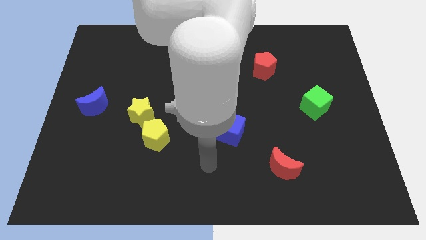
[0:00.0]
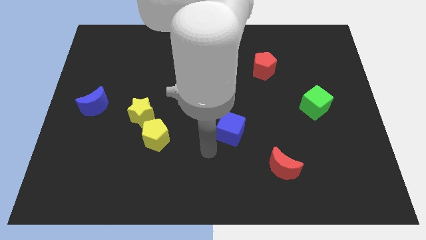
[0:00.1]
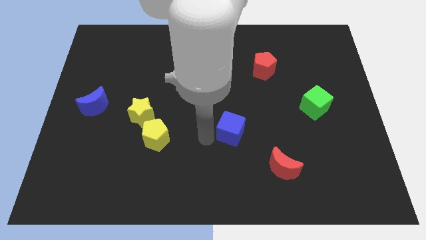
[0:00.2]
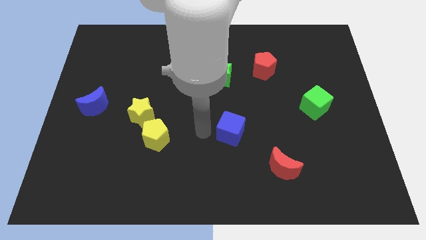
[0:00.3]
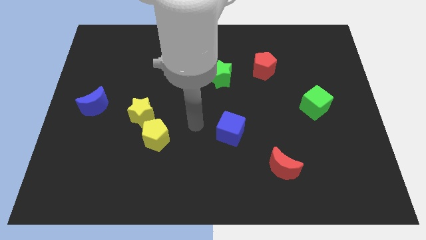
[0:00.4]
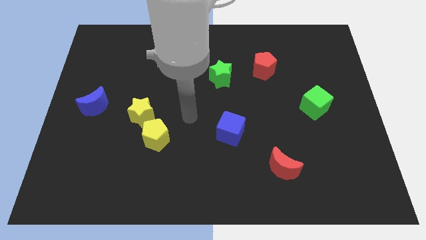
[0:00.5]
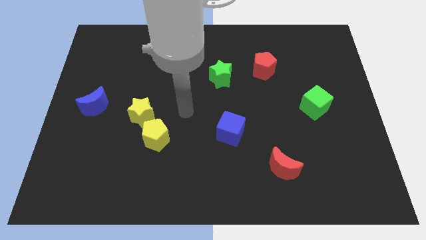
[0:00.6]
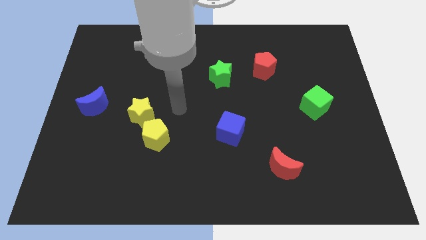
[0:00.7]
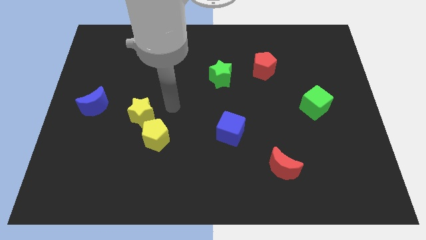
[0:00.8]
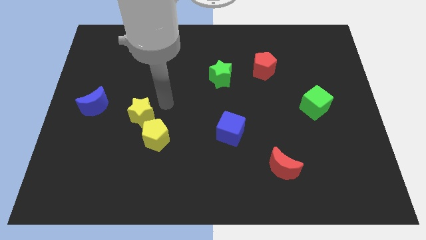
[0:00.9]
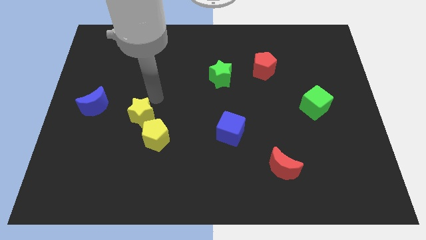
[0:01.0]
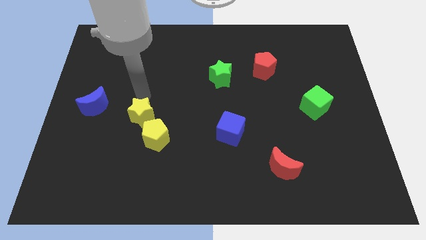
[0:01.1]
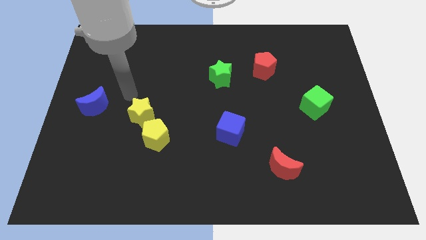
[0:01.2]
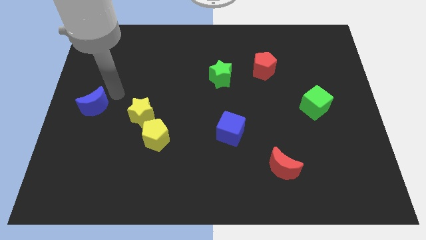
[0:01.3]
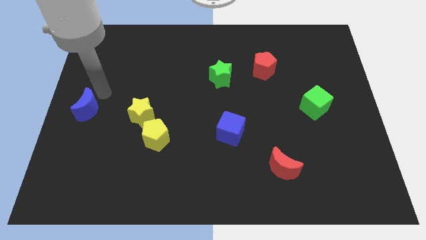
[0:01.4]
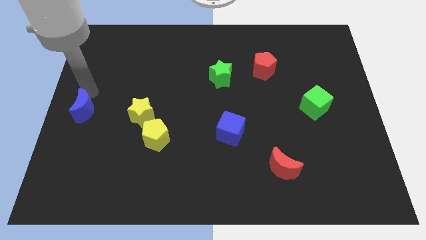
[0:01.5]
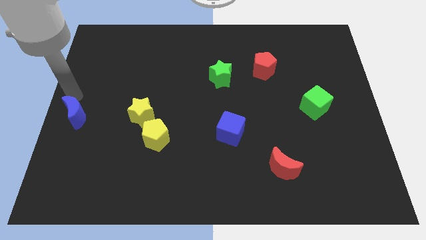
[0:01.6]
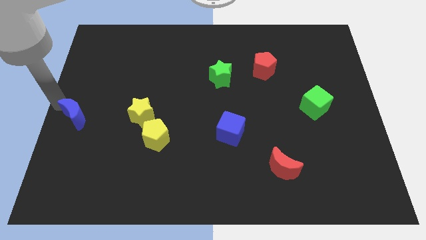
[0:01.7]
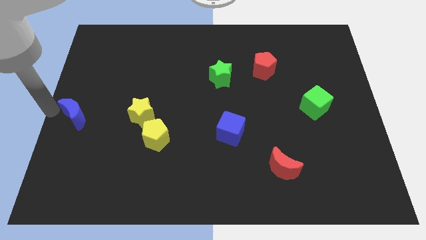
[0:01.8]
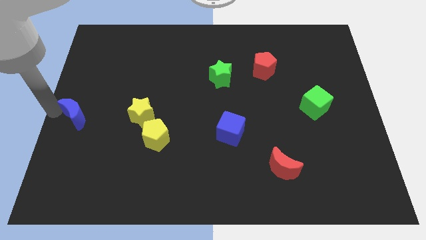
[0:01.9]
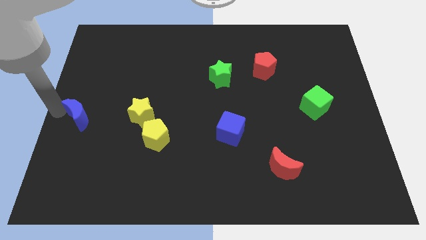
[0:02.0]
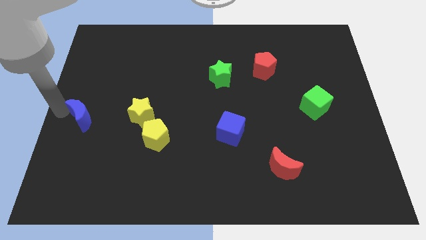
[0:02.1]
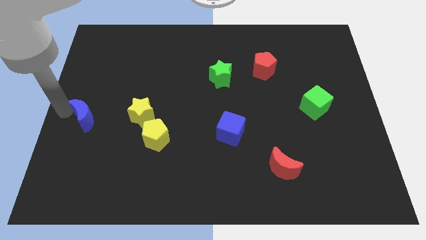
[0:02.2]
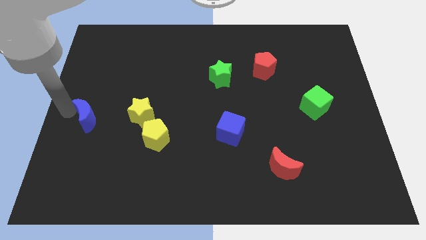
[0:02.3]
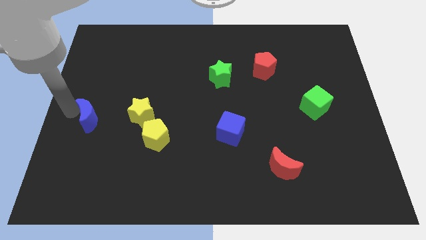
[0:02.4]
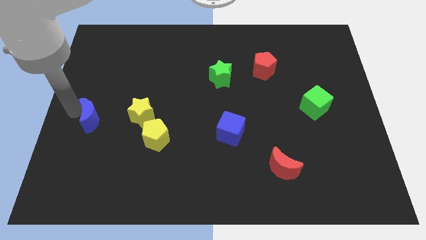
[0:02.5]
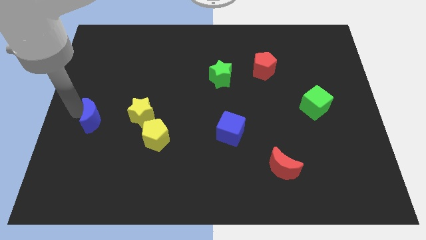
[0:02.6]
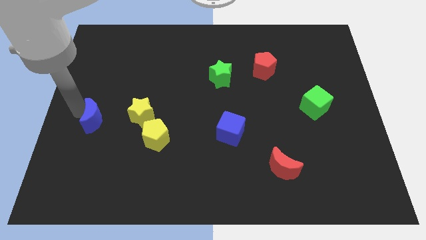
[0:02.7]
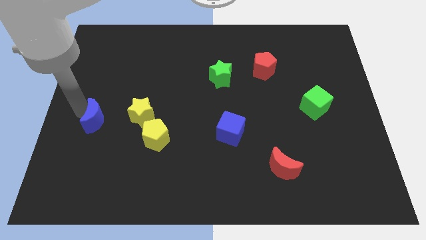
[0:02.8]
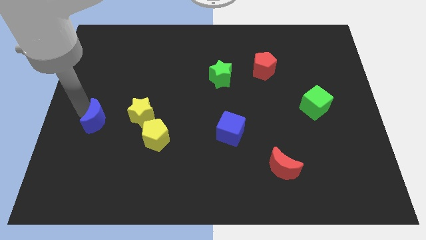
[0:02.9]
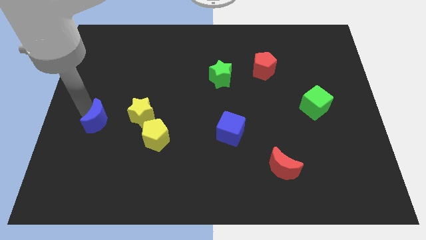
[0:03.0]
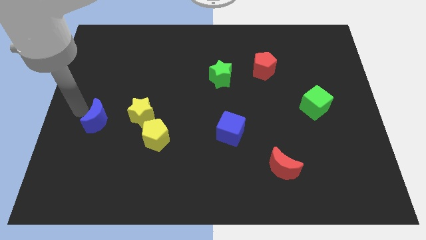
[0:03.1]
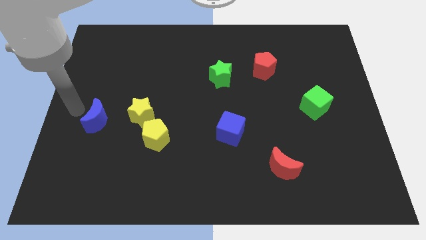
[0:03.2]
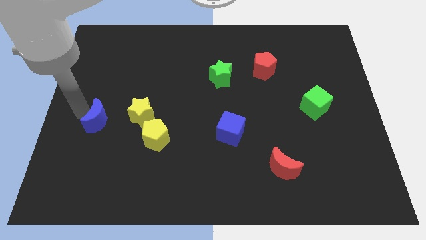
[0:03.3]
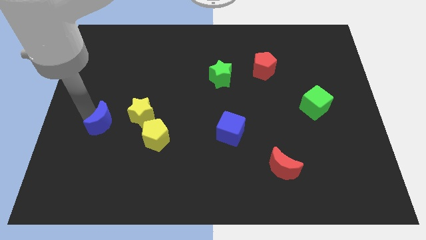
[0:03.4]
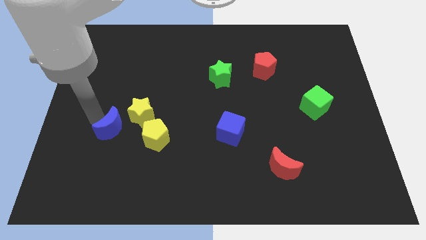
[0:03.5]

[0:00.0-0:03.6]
slightly slide the blue moon down and right diagonally

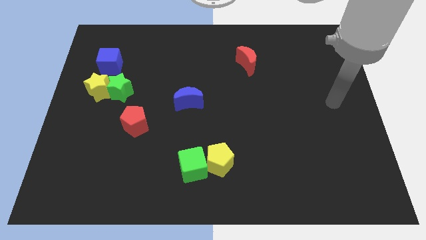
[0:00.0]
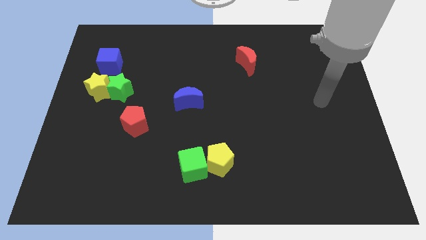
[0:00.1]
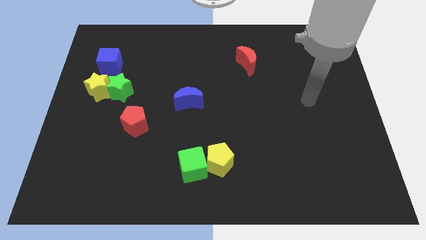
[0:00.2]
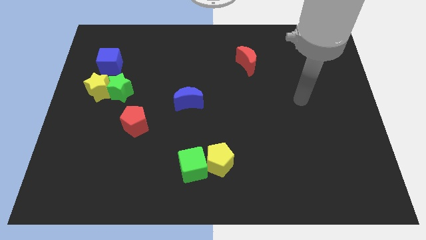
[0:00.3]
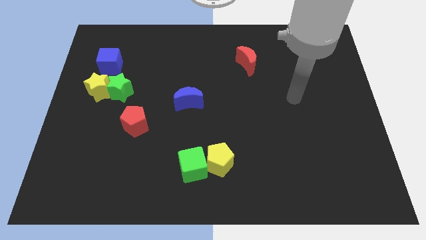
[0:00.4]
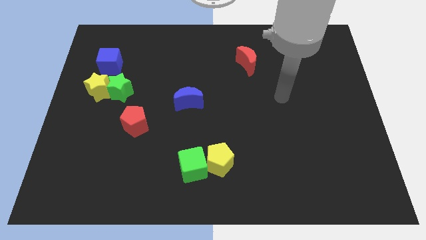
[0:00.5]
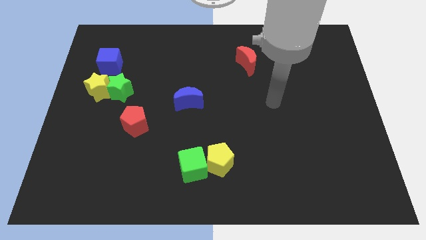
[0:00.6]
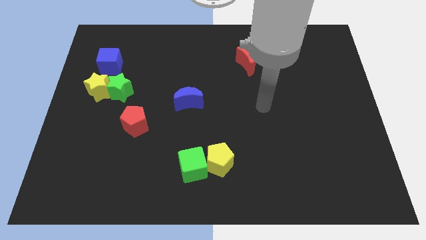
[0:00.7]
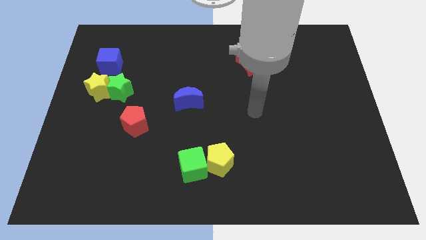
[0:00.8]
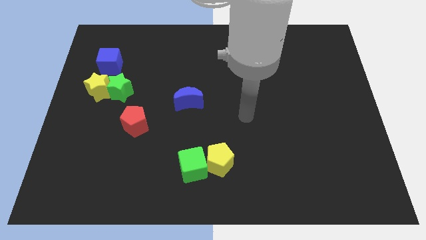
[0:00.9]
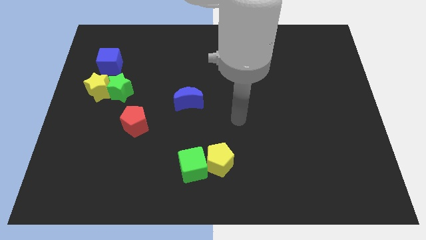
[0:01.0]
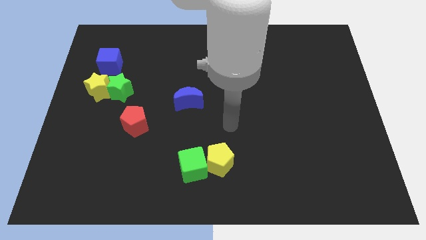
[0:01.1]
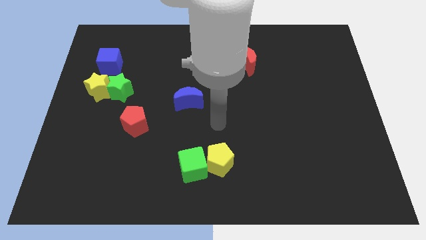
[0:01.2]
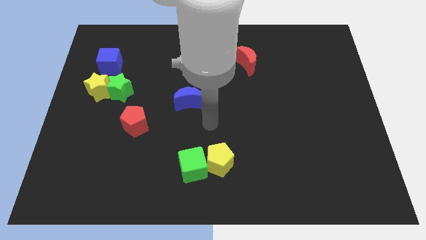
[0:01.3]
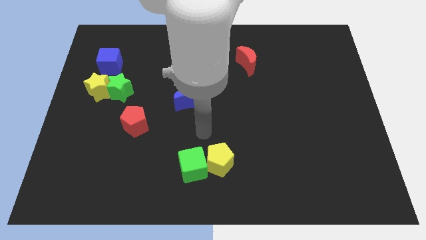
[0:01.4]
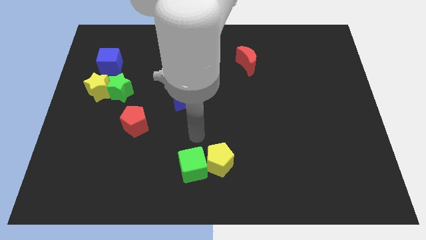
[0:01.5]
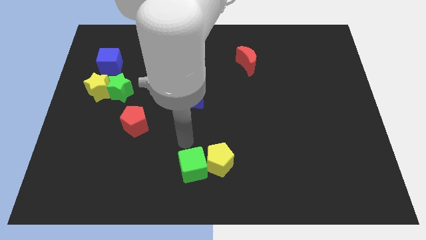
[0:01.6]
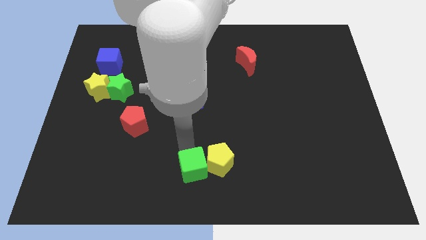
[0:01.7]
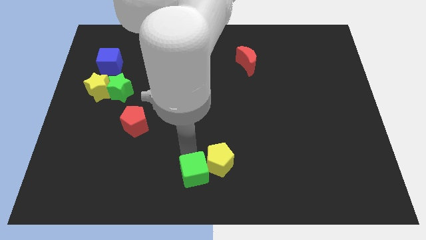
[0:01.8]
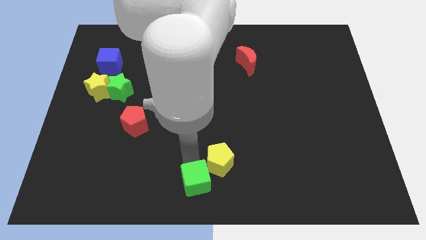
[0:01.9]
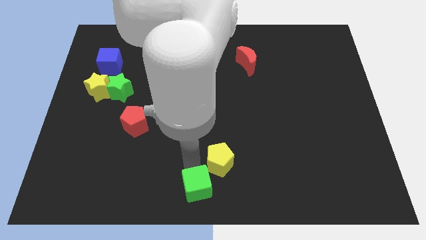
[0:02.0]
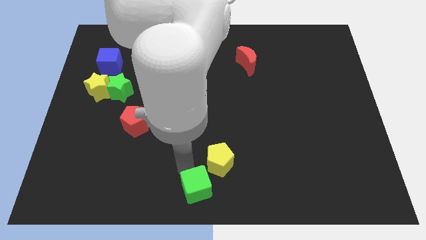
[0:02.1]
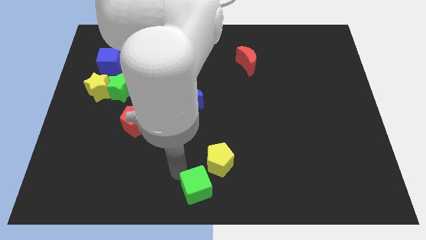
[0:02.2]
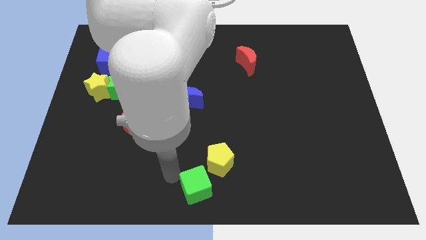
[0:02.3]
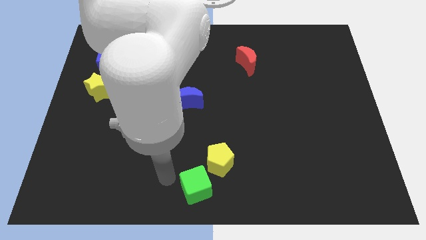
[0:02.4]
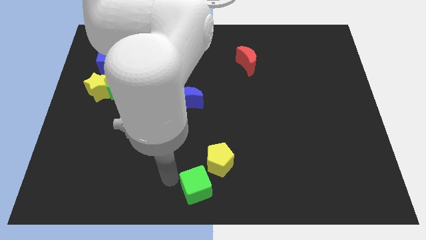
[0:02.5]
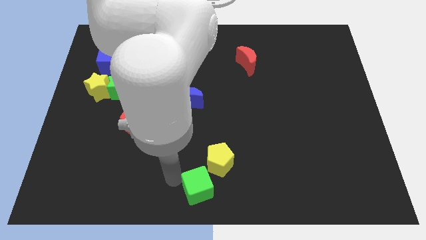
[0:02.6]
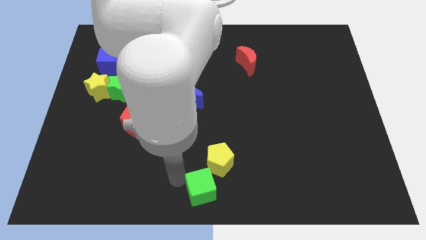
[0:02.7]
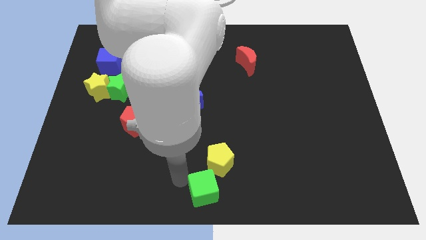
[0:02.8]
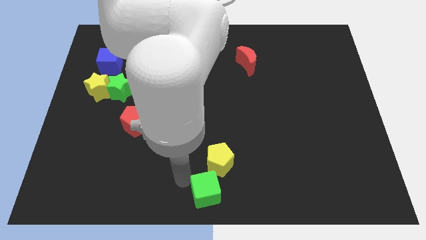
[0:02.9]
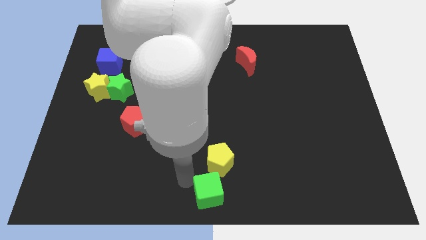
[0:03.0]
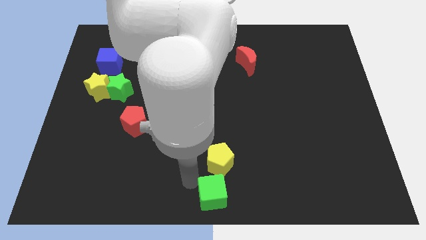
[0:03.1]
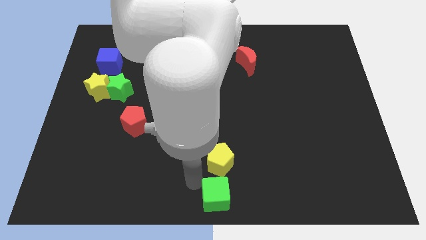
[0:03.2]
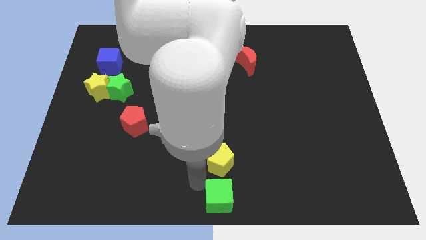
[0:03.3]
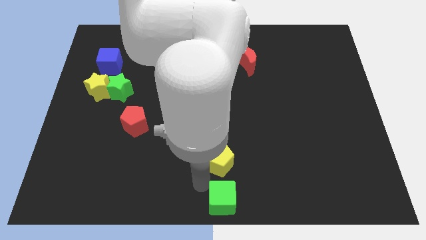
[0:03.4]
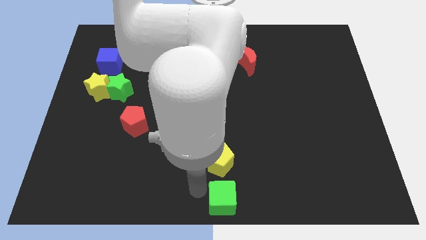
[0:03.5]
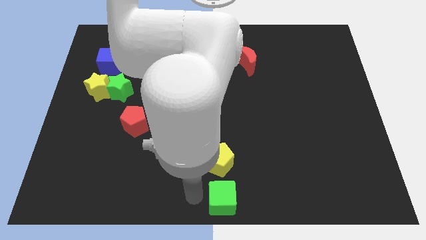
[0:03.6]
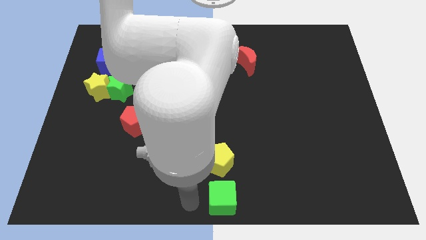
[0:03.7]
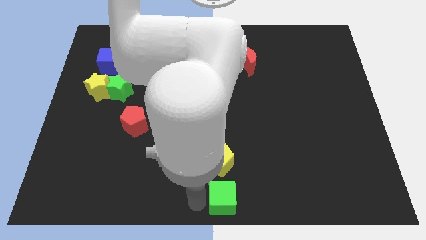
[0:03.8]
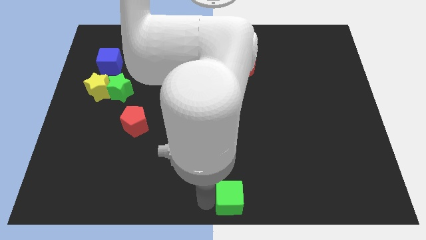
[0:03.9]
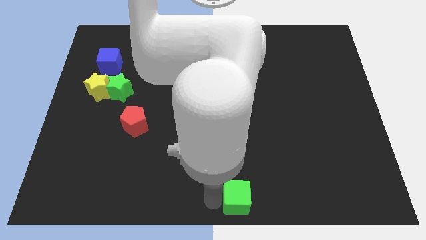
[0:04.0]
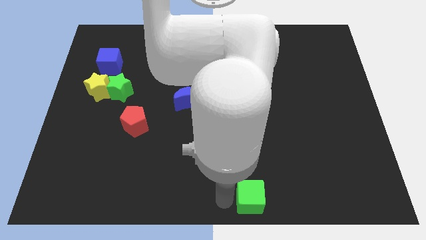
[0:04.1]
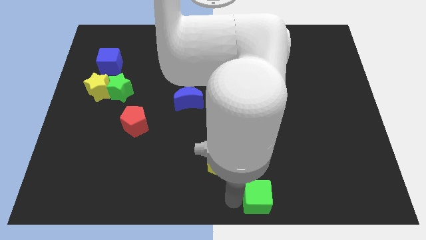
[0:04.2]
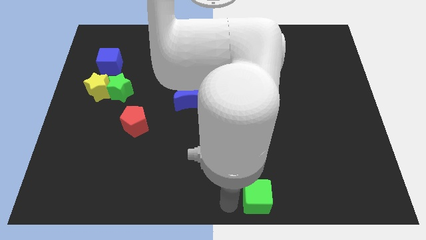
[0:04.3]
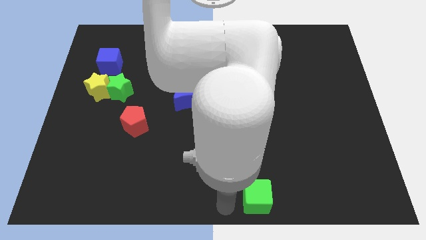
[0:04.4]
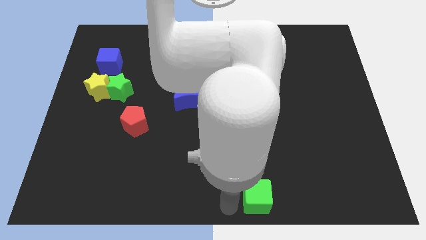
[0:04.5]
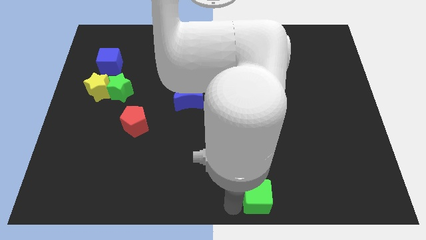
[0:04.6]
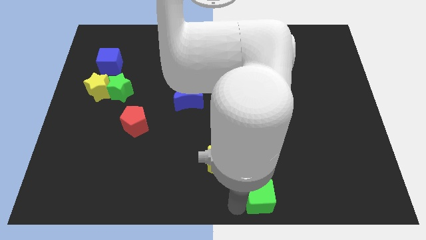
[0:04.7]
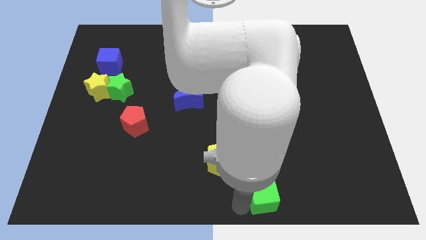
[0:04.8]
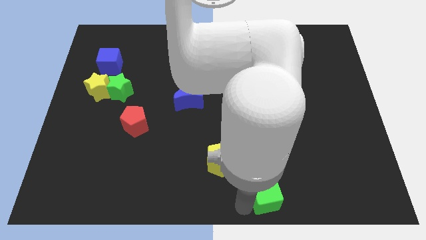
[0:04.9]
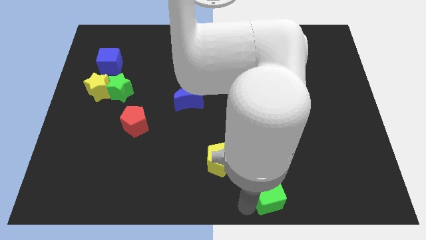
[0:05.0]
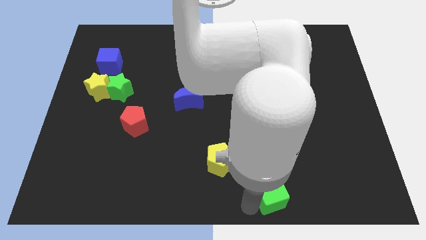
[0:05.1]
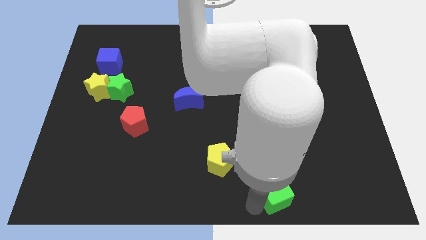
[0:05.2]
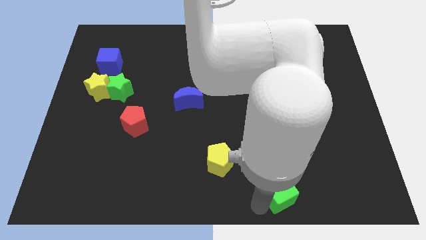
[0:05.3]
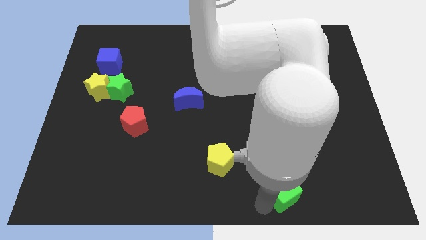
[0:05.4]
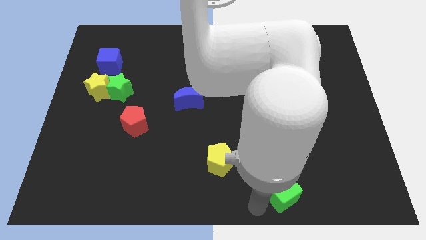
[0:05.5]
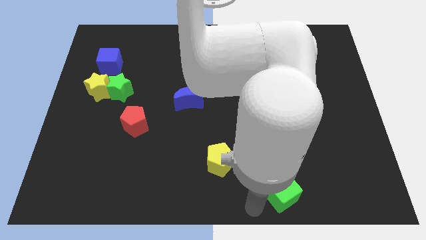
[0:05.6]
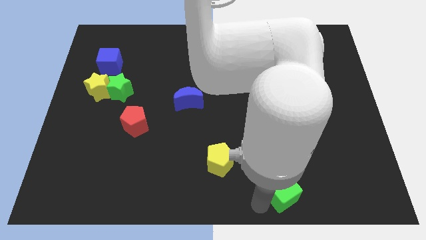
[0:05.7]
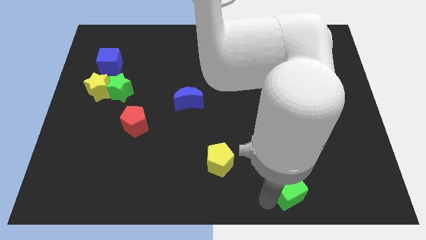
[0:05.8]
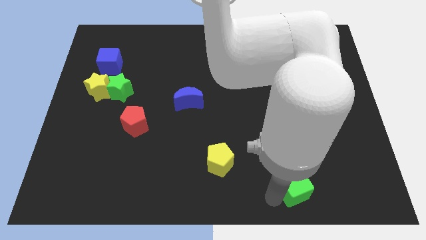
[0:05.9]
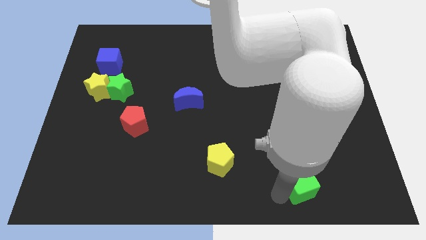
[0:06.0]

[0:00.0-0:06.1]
move the green cube to the right
